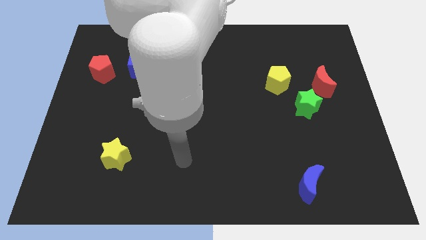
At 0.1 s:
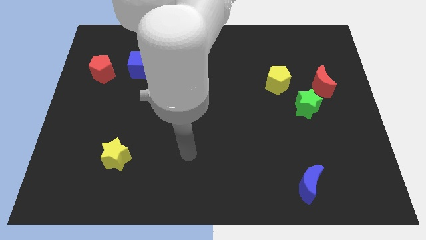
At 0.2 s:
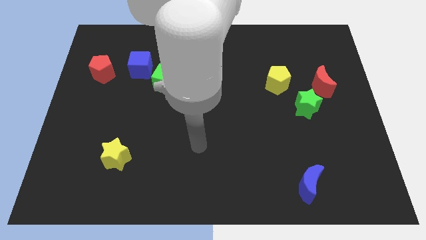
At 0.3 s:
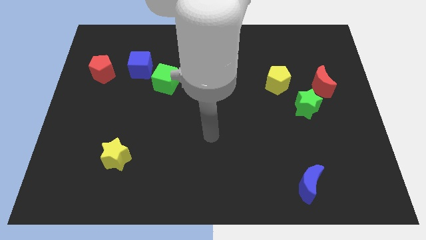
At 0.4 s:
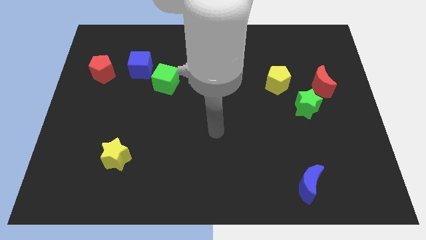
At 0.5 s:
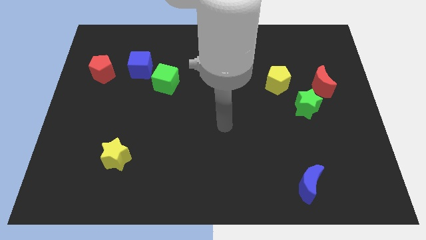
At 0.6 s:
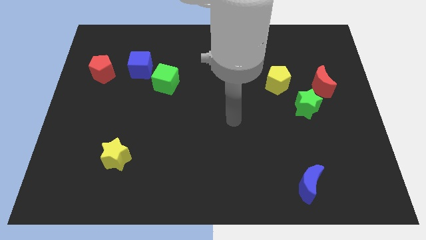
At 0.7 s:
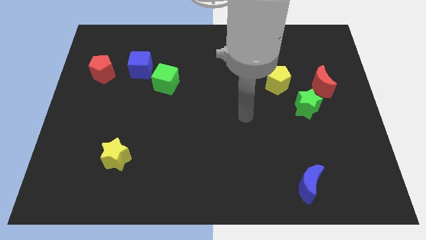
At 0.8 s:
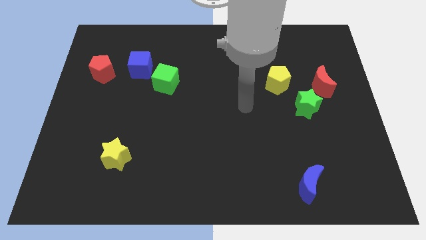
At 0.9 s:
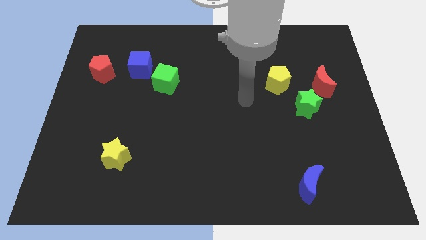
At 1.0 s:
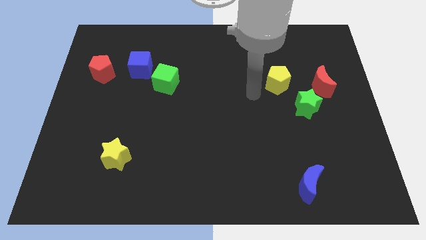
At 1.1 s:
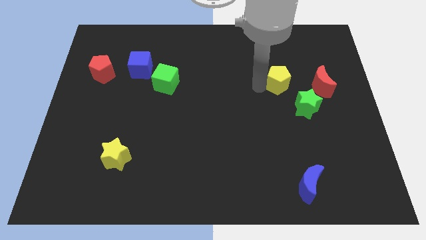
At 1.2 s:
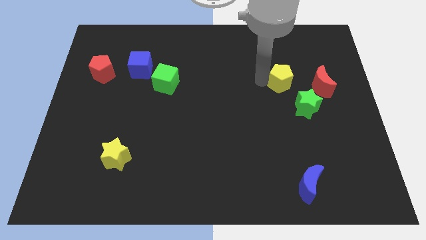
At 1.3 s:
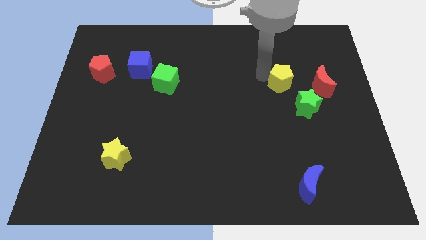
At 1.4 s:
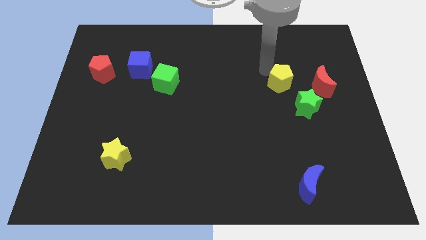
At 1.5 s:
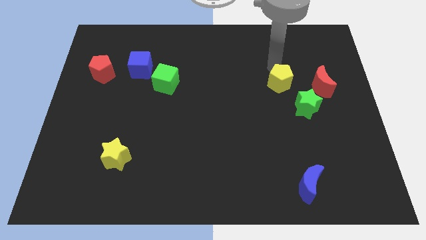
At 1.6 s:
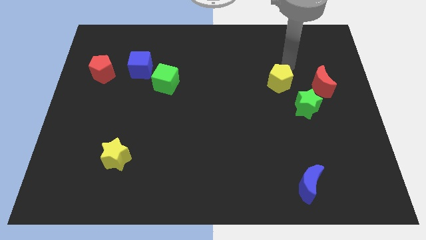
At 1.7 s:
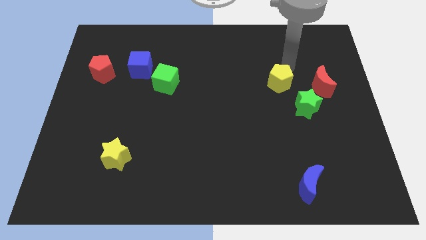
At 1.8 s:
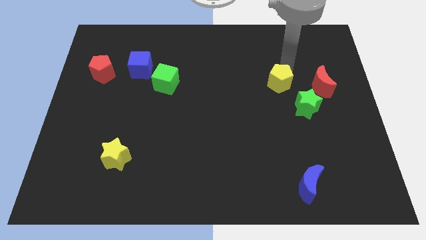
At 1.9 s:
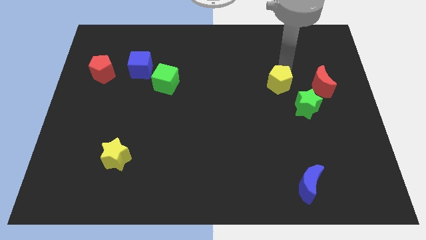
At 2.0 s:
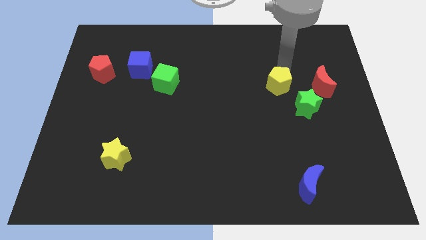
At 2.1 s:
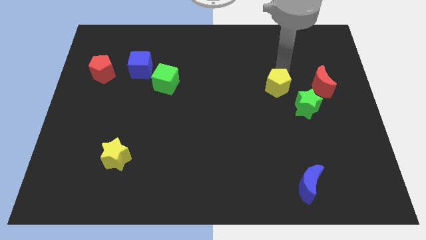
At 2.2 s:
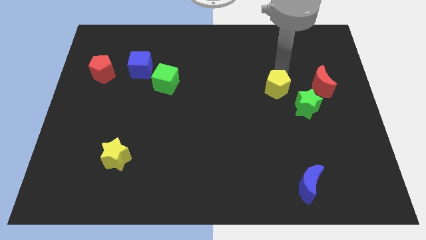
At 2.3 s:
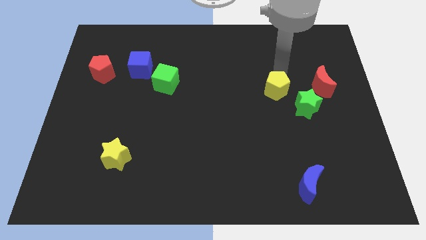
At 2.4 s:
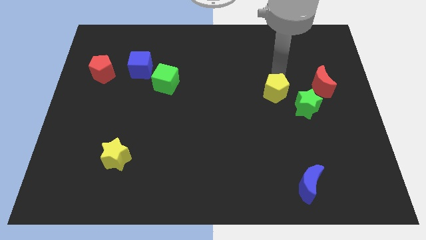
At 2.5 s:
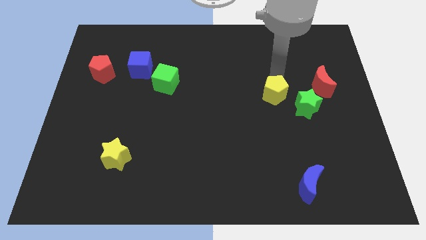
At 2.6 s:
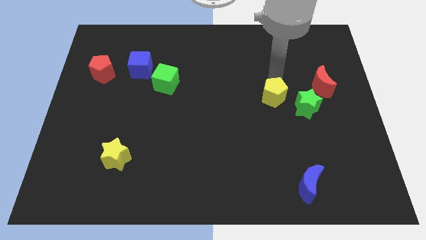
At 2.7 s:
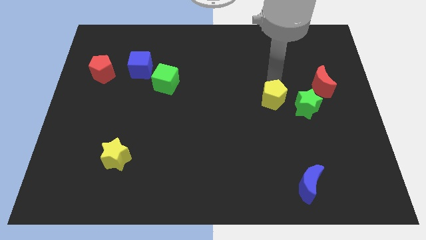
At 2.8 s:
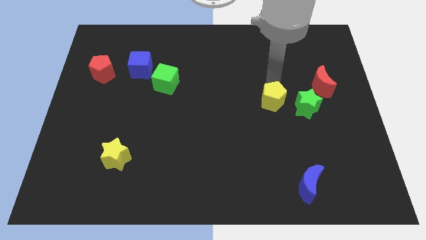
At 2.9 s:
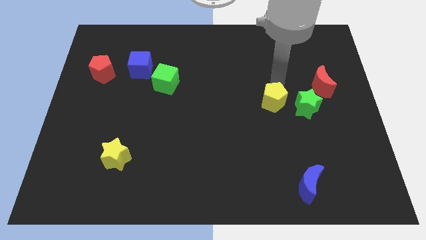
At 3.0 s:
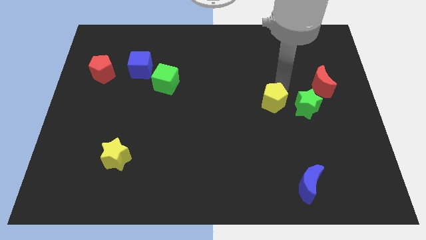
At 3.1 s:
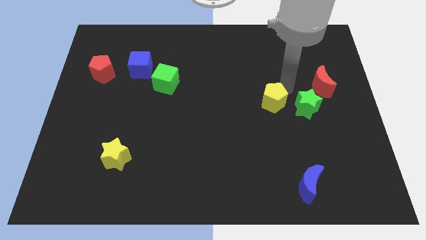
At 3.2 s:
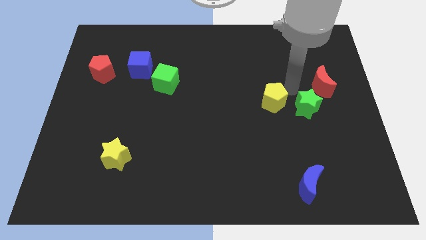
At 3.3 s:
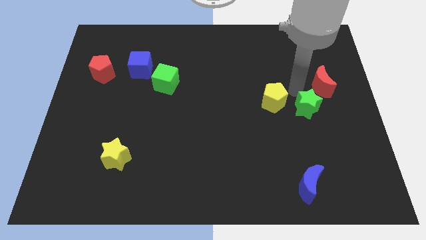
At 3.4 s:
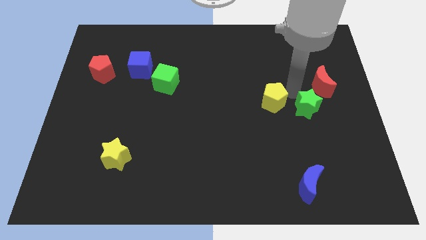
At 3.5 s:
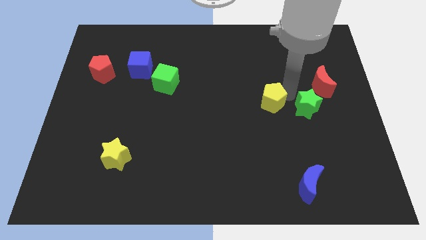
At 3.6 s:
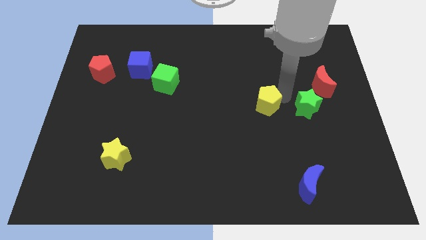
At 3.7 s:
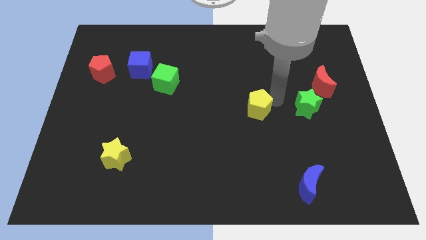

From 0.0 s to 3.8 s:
slide the yellow pentagon downwards and to the left diagonally a little bit

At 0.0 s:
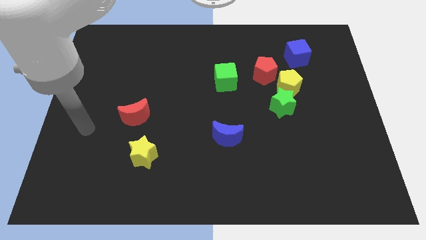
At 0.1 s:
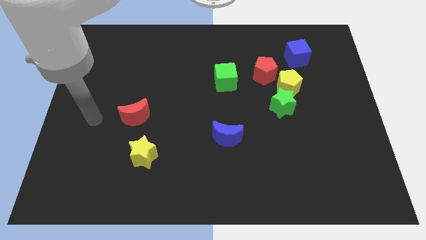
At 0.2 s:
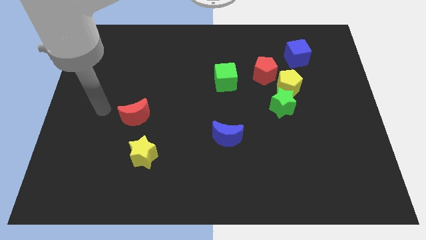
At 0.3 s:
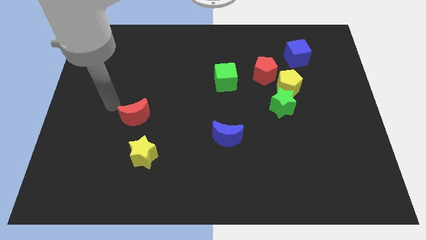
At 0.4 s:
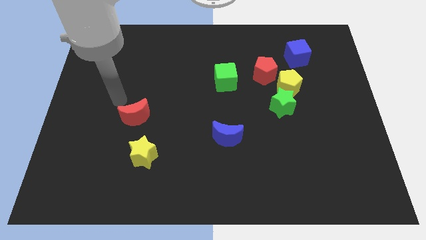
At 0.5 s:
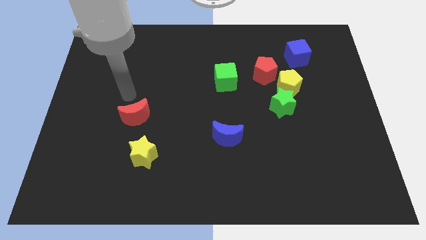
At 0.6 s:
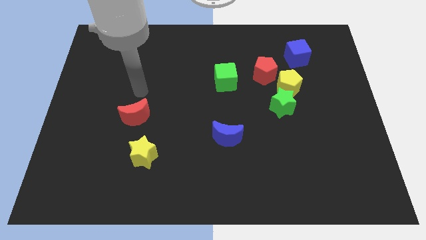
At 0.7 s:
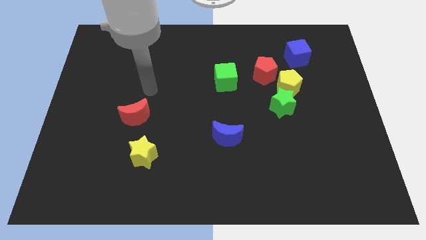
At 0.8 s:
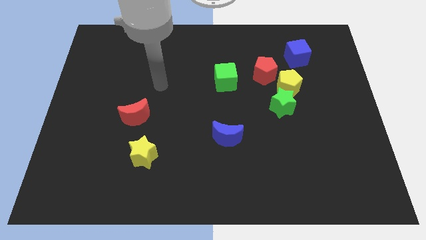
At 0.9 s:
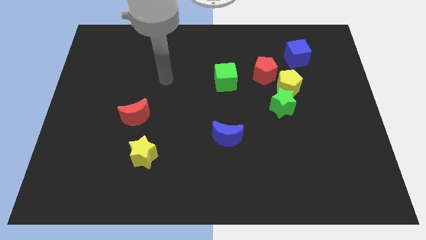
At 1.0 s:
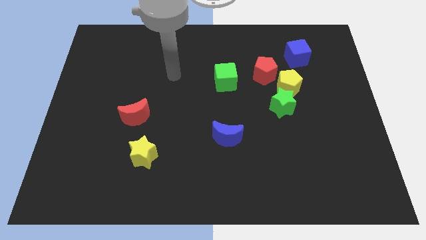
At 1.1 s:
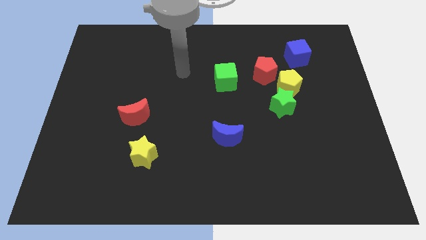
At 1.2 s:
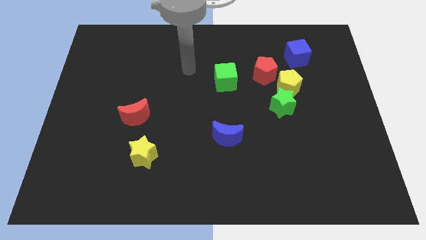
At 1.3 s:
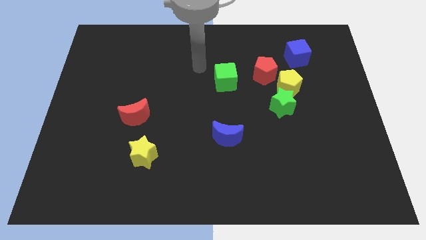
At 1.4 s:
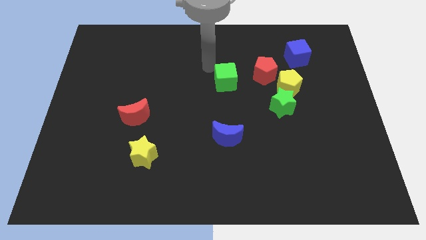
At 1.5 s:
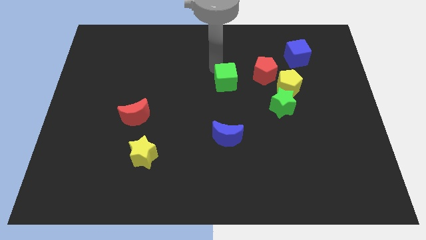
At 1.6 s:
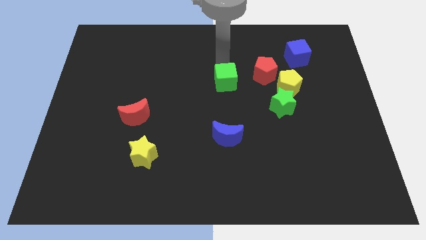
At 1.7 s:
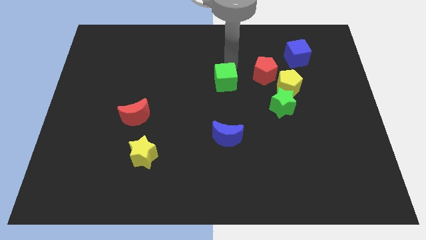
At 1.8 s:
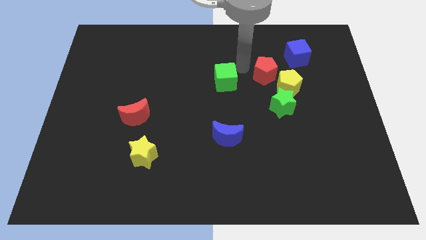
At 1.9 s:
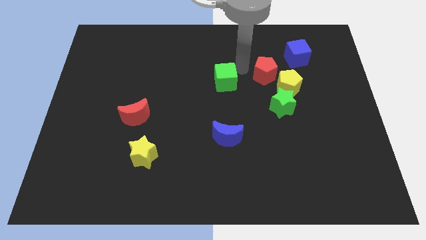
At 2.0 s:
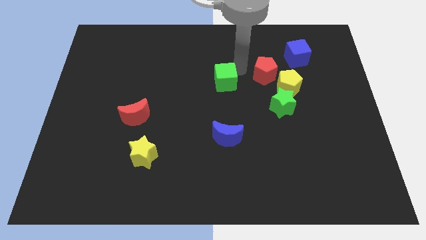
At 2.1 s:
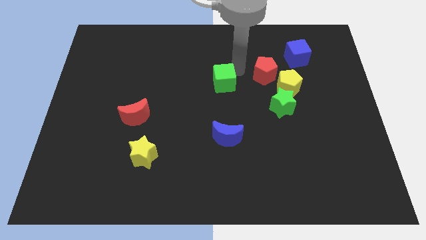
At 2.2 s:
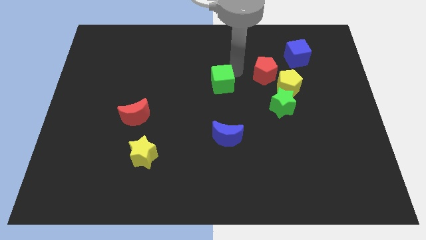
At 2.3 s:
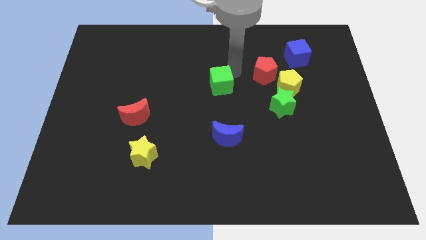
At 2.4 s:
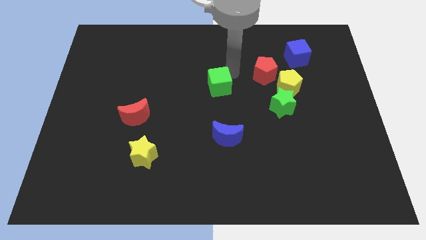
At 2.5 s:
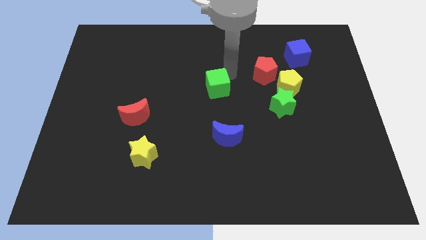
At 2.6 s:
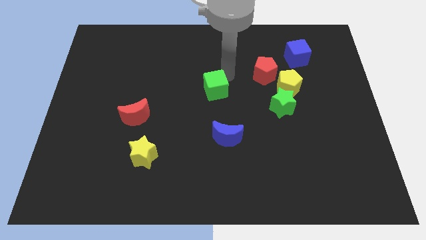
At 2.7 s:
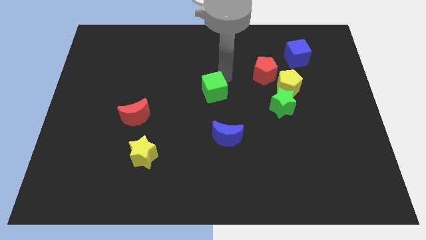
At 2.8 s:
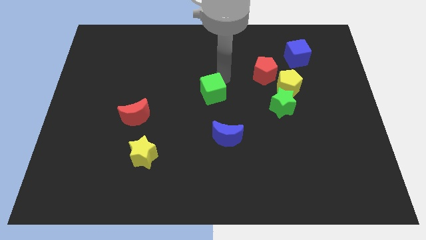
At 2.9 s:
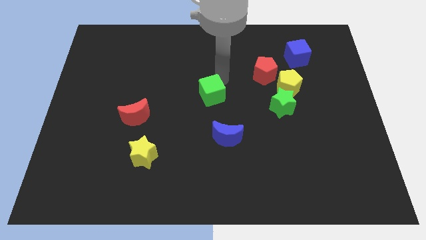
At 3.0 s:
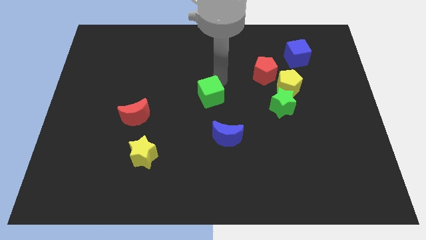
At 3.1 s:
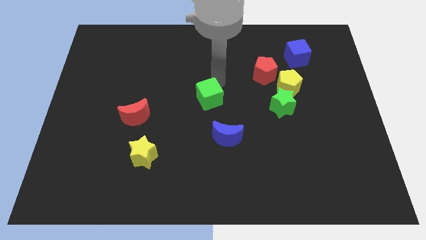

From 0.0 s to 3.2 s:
move the green cube down and then to the left a little

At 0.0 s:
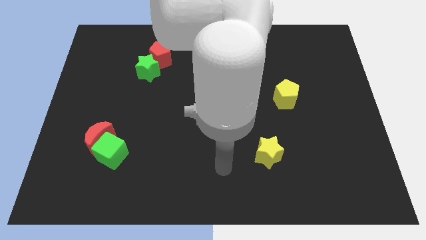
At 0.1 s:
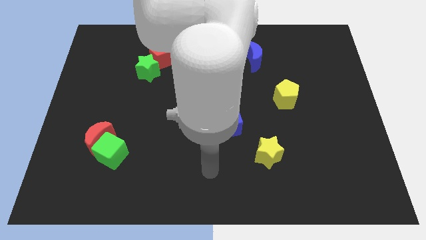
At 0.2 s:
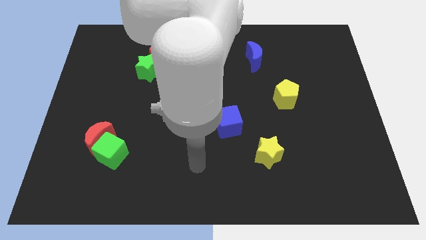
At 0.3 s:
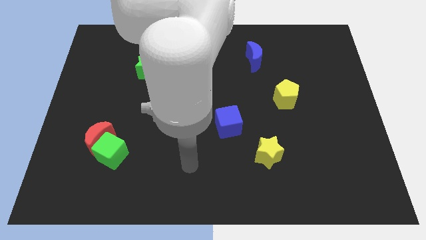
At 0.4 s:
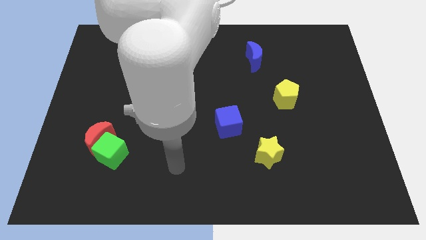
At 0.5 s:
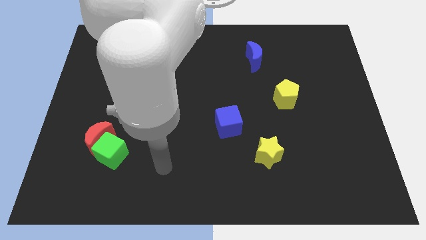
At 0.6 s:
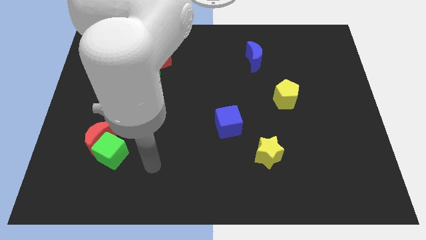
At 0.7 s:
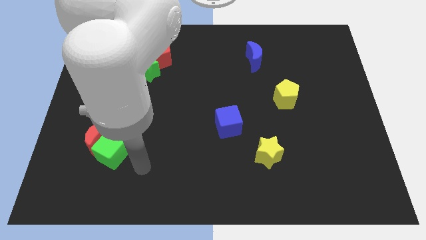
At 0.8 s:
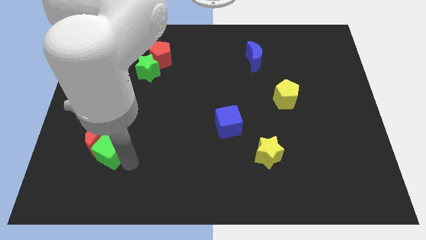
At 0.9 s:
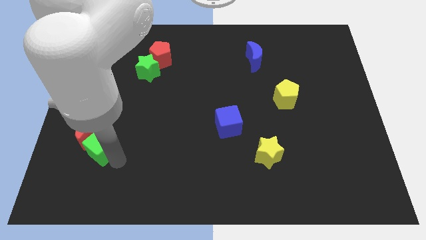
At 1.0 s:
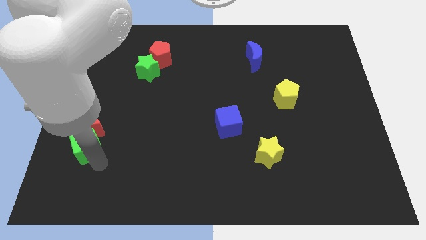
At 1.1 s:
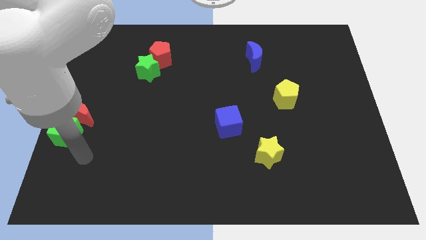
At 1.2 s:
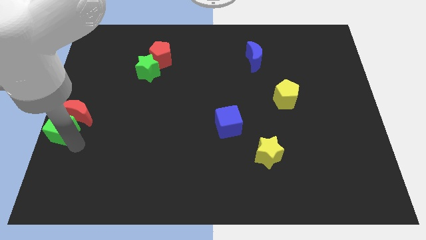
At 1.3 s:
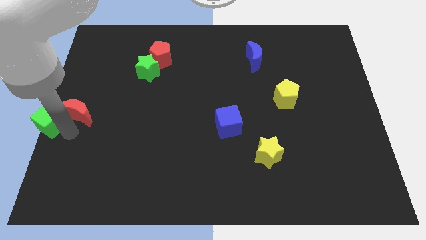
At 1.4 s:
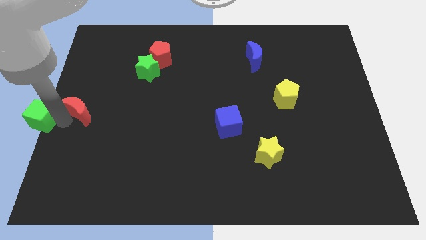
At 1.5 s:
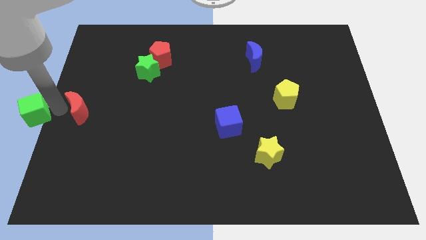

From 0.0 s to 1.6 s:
slide the red moon somewhat upwards
